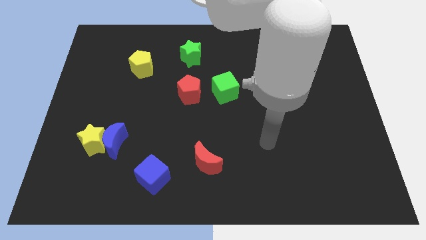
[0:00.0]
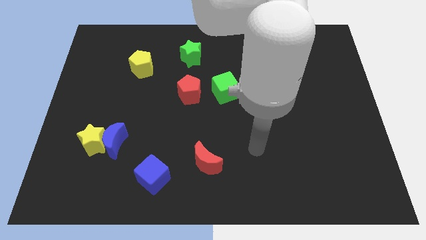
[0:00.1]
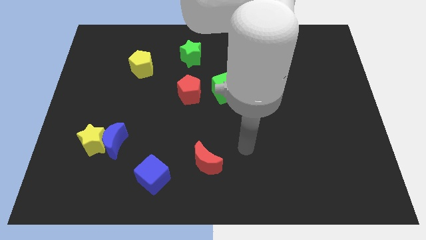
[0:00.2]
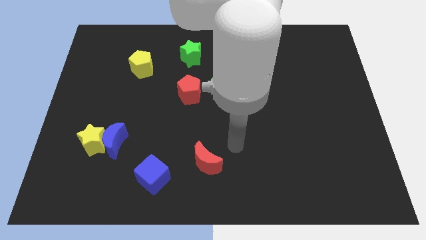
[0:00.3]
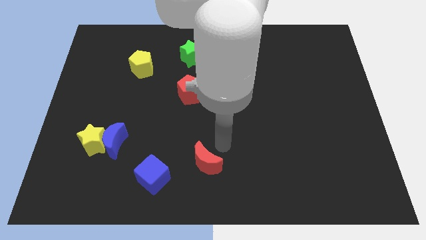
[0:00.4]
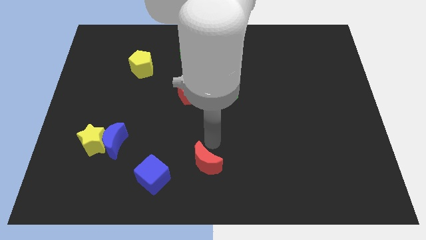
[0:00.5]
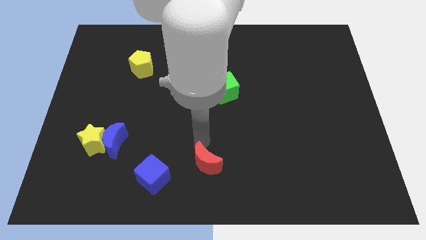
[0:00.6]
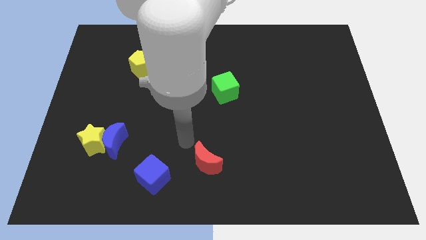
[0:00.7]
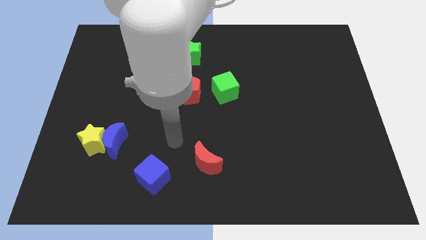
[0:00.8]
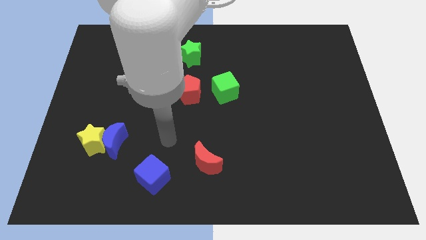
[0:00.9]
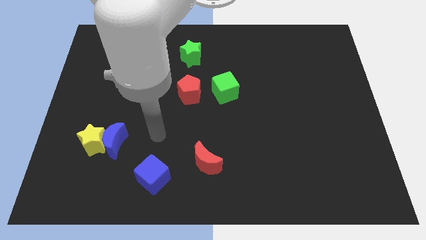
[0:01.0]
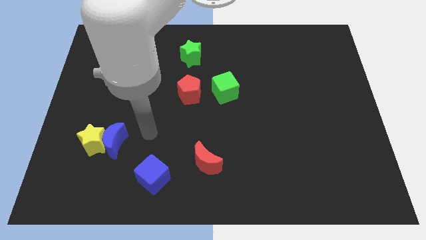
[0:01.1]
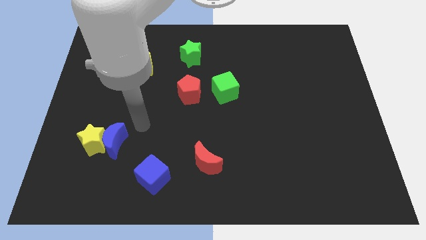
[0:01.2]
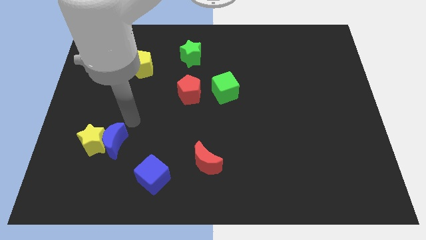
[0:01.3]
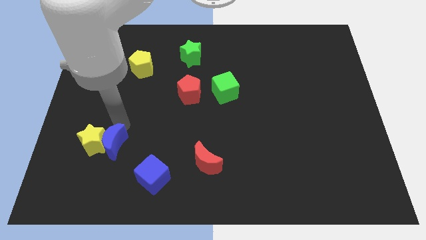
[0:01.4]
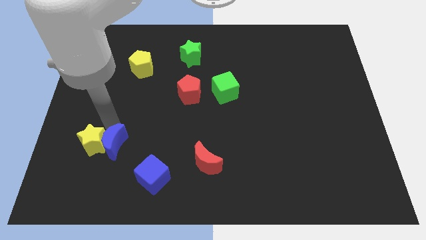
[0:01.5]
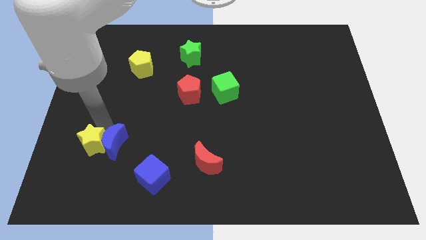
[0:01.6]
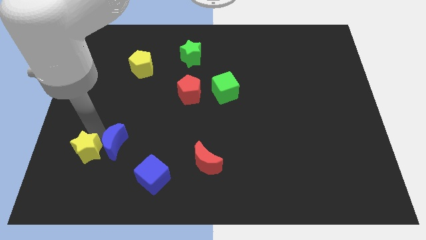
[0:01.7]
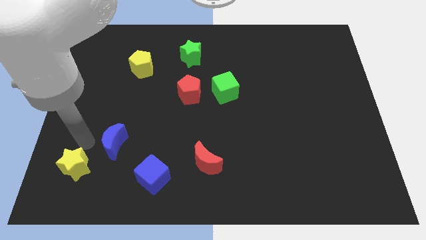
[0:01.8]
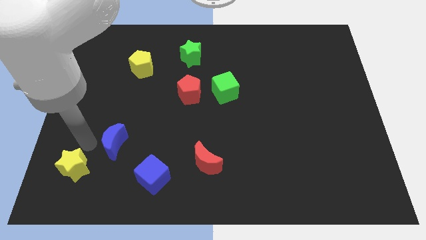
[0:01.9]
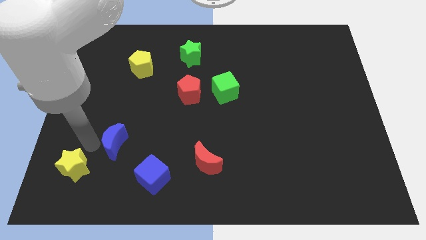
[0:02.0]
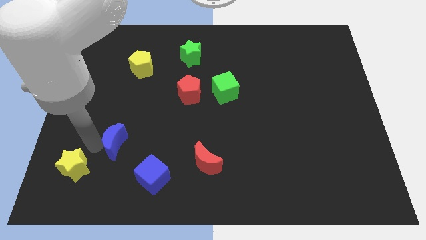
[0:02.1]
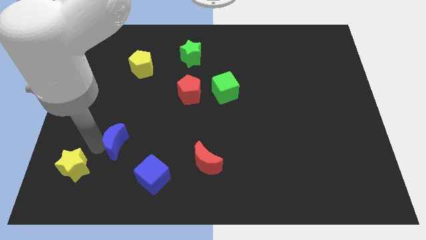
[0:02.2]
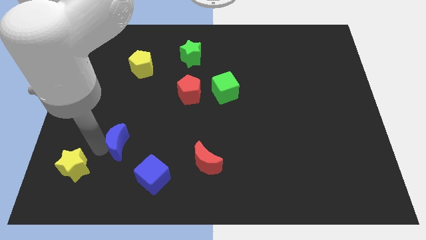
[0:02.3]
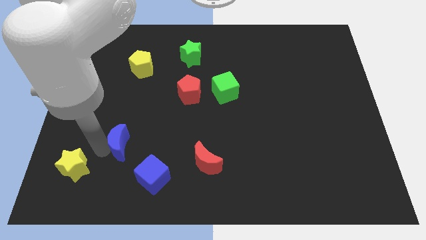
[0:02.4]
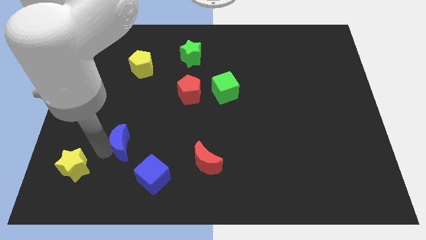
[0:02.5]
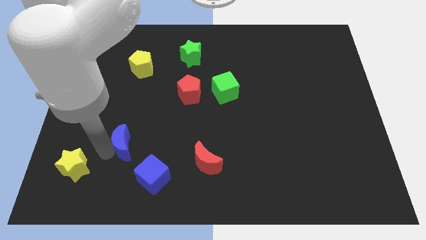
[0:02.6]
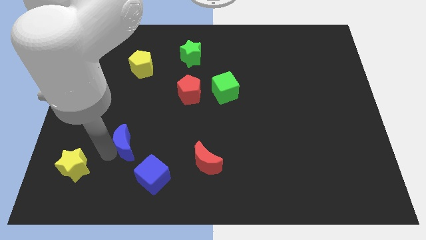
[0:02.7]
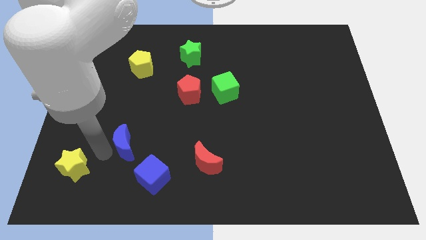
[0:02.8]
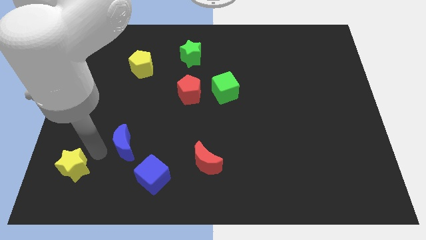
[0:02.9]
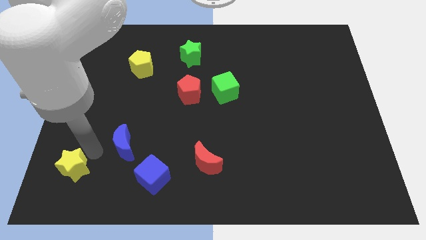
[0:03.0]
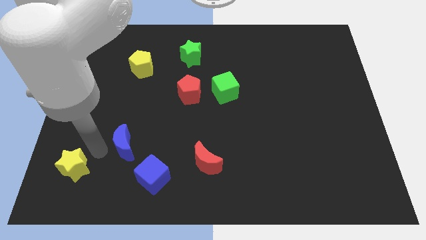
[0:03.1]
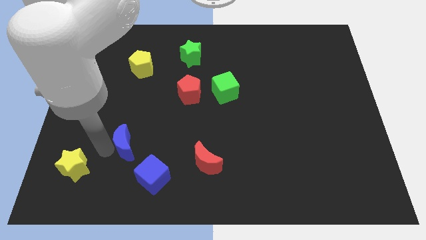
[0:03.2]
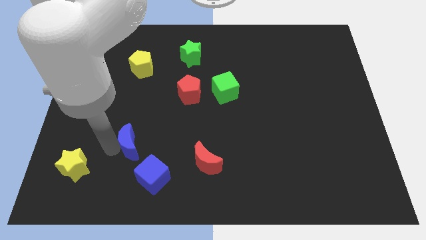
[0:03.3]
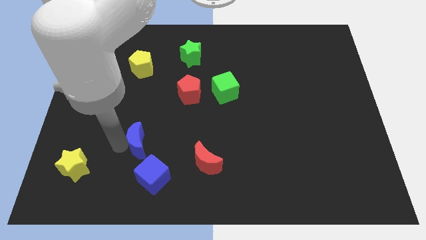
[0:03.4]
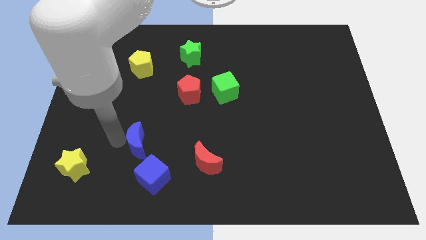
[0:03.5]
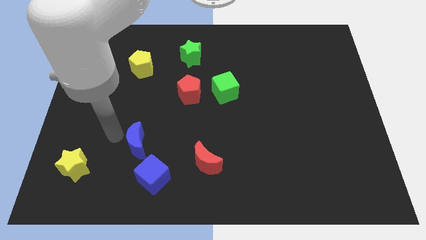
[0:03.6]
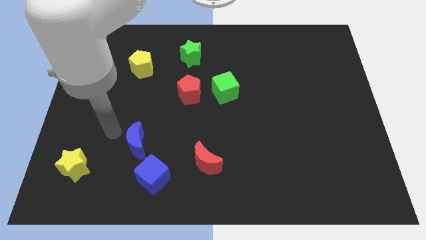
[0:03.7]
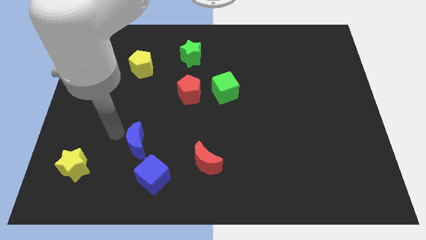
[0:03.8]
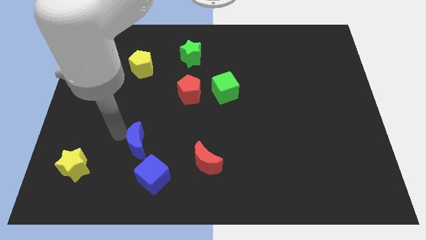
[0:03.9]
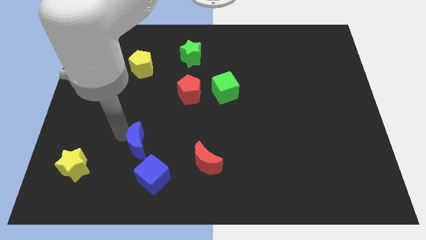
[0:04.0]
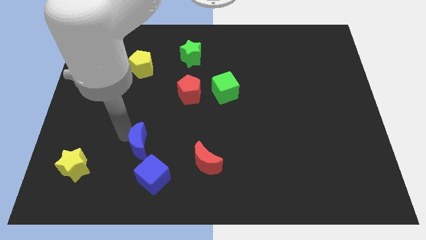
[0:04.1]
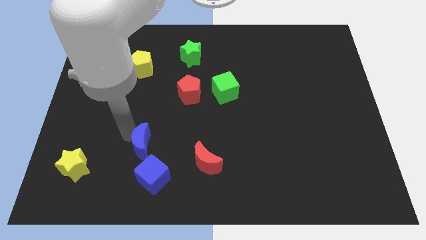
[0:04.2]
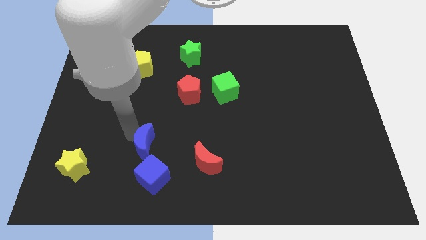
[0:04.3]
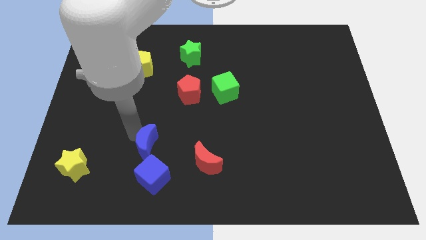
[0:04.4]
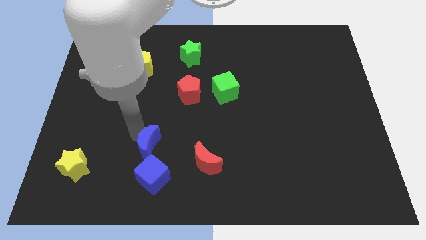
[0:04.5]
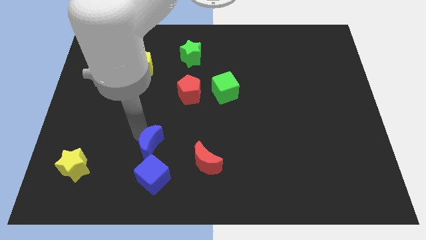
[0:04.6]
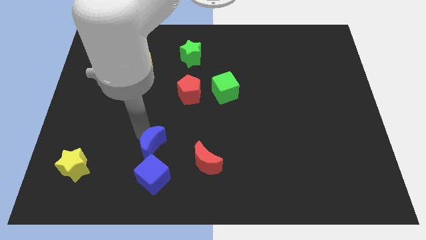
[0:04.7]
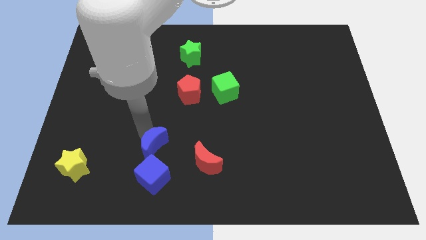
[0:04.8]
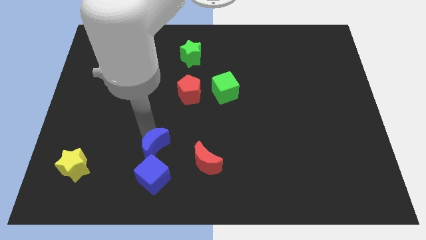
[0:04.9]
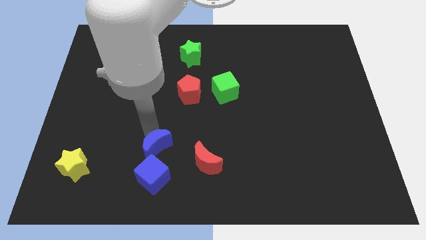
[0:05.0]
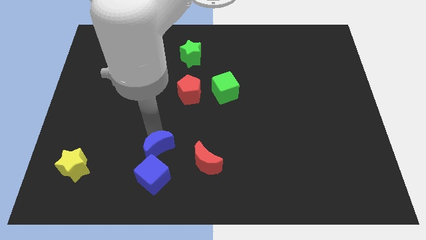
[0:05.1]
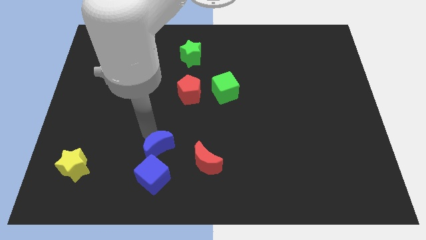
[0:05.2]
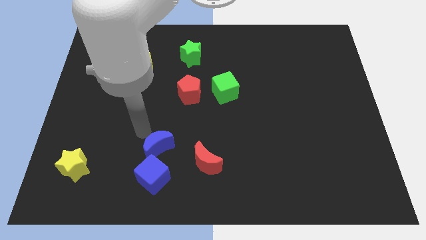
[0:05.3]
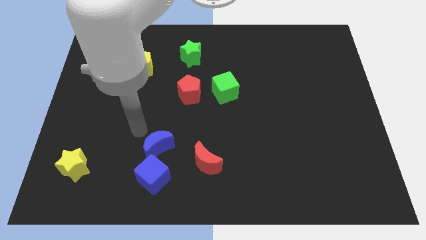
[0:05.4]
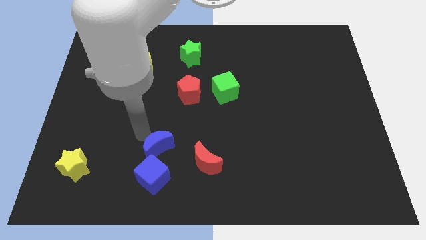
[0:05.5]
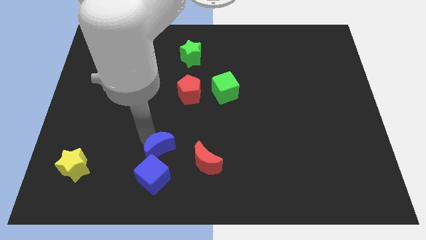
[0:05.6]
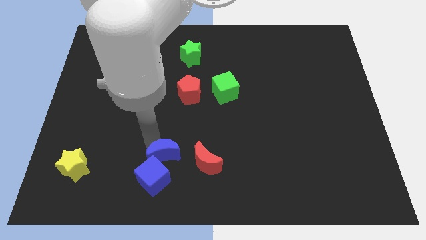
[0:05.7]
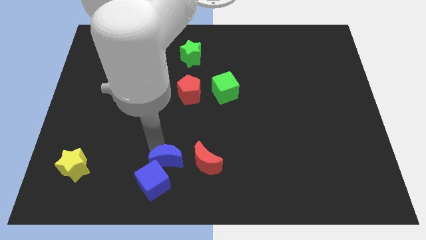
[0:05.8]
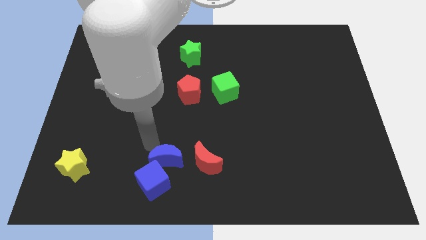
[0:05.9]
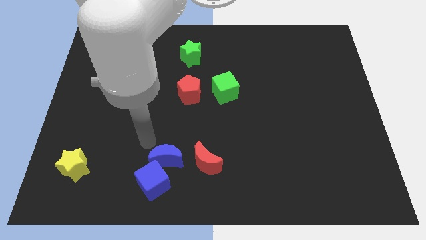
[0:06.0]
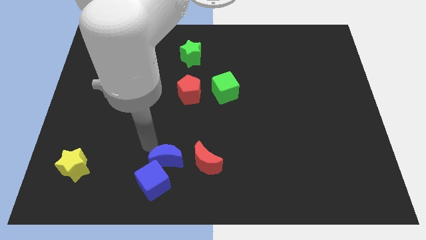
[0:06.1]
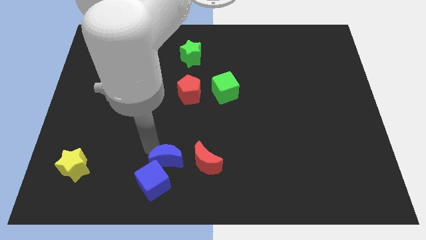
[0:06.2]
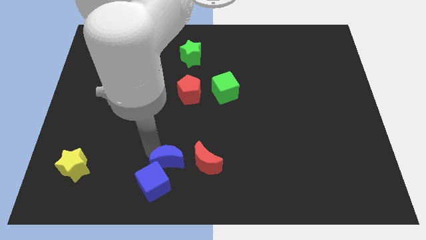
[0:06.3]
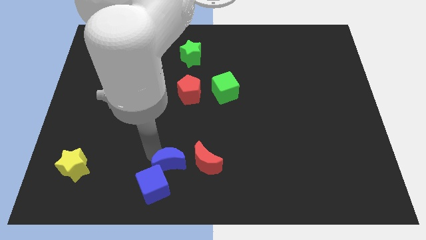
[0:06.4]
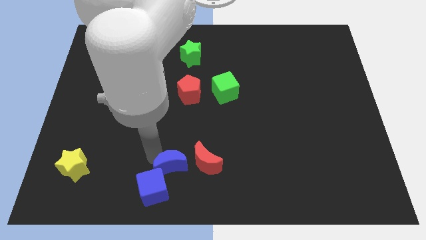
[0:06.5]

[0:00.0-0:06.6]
put the blue moon to the bottom
